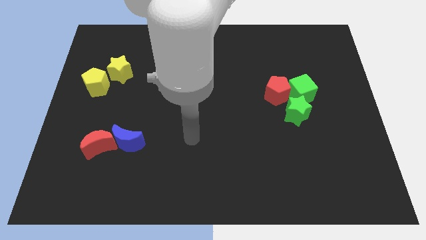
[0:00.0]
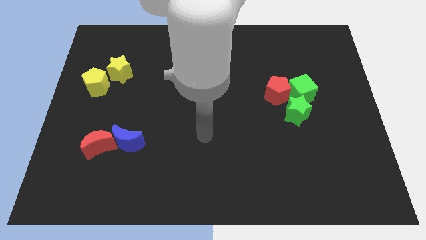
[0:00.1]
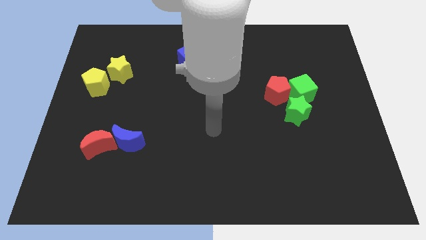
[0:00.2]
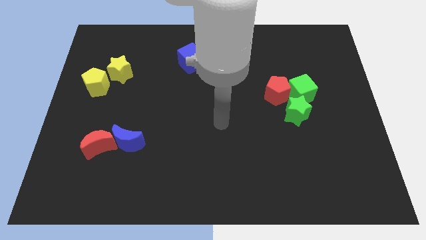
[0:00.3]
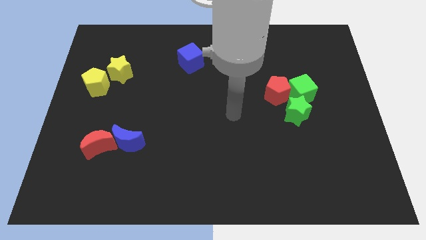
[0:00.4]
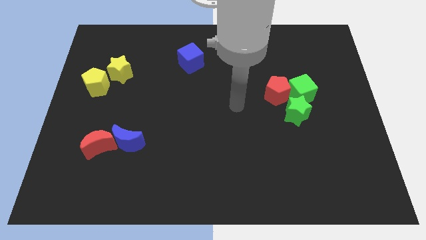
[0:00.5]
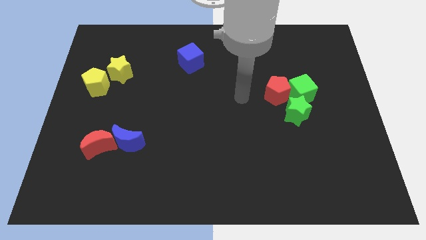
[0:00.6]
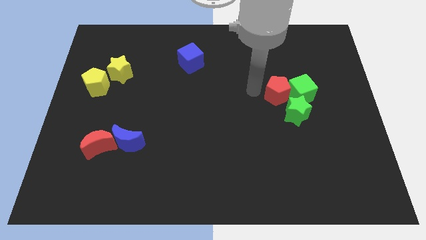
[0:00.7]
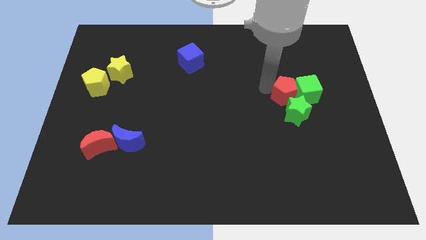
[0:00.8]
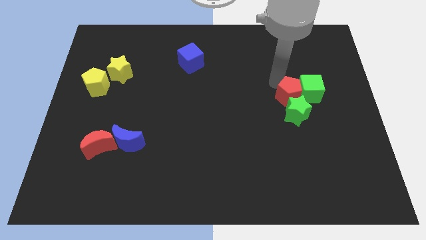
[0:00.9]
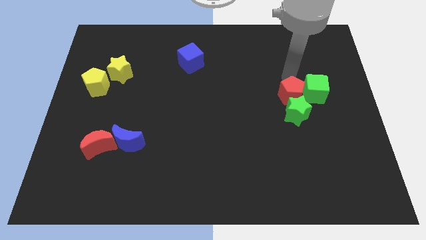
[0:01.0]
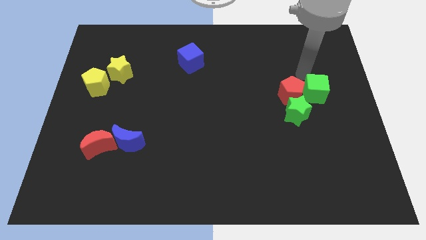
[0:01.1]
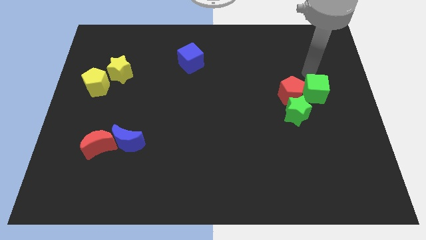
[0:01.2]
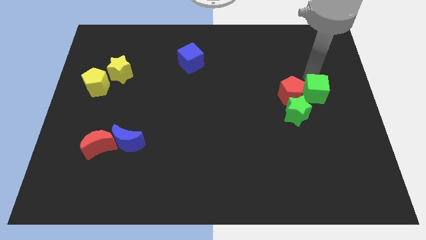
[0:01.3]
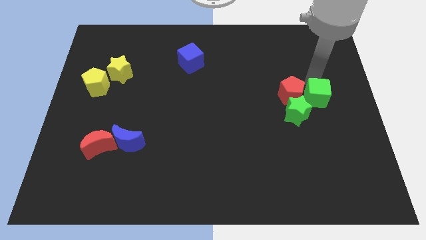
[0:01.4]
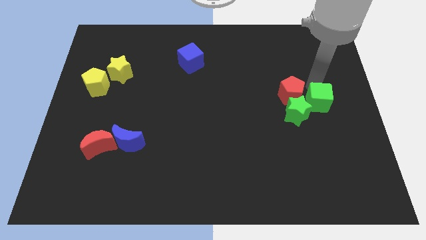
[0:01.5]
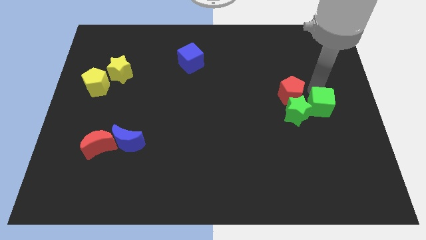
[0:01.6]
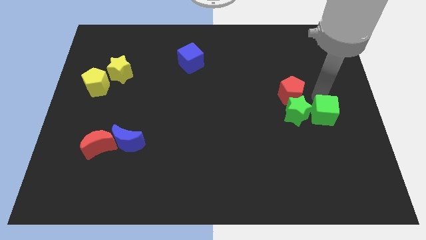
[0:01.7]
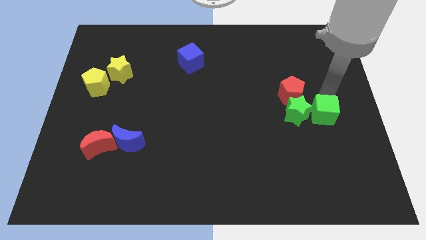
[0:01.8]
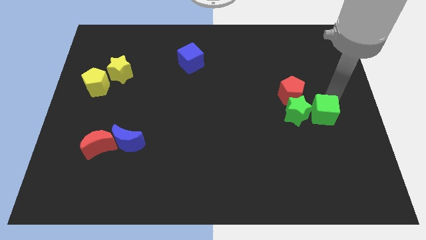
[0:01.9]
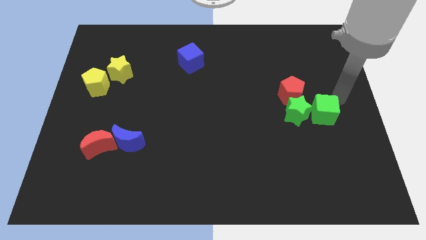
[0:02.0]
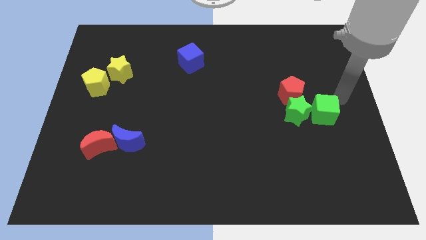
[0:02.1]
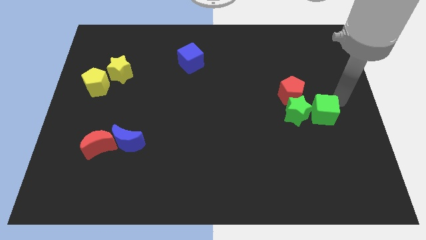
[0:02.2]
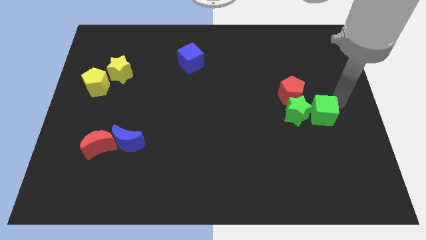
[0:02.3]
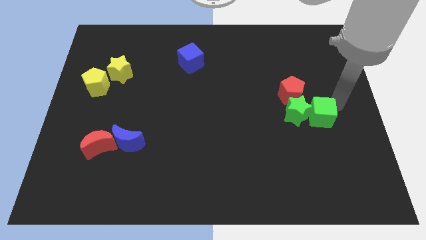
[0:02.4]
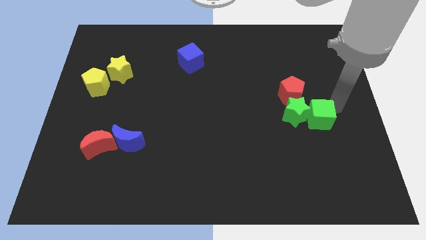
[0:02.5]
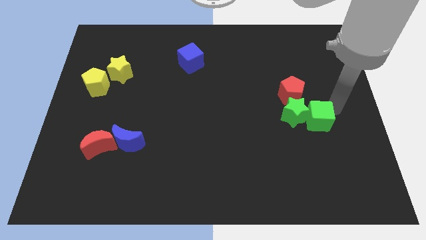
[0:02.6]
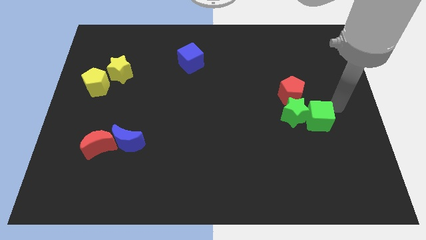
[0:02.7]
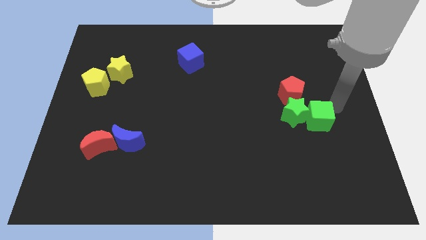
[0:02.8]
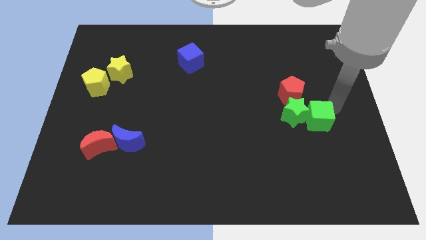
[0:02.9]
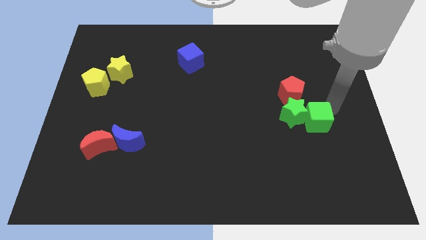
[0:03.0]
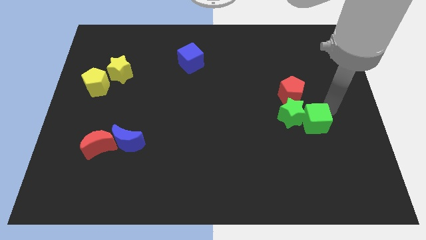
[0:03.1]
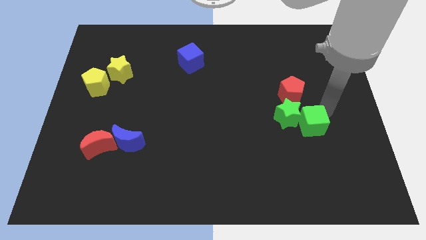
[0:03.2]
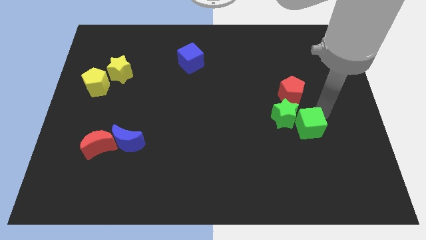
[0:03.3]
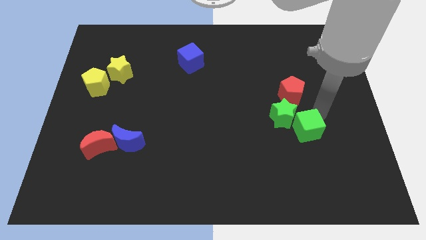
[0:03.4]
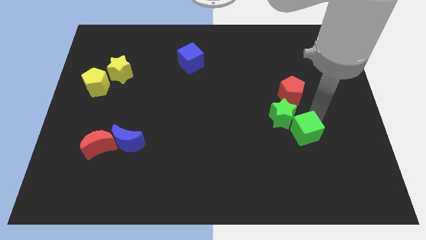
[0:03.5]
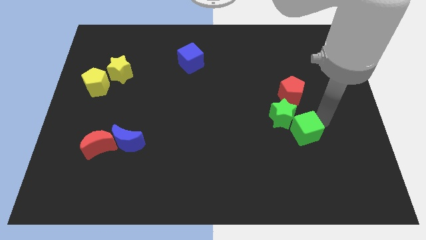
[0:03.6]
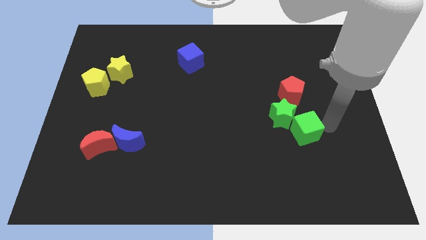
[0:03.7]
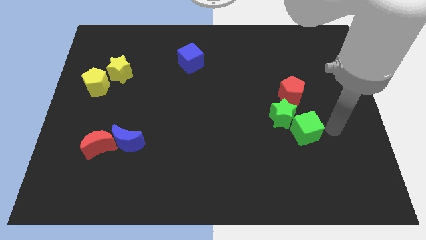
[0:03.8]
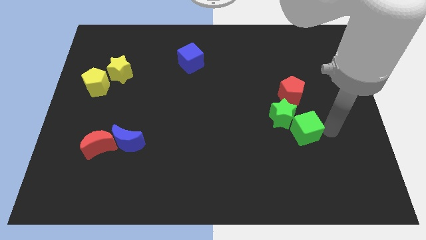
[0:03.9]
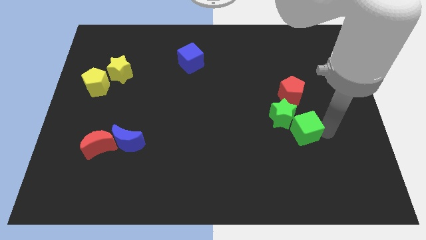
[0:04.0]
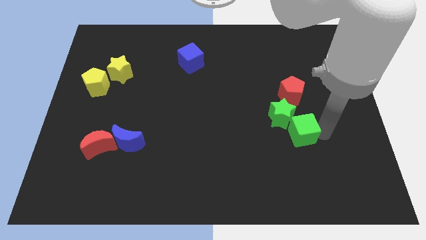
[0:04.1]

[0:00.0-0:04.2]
slightly move the green cube down and left diagonally

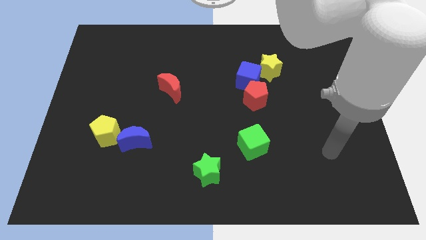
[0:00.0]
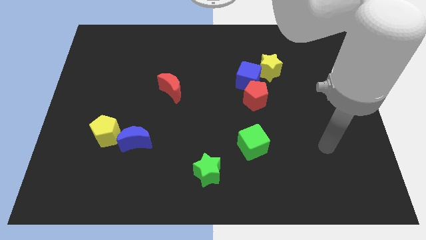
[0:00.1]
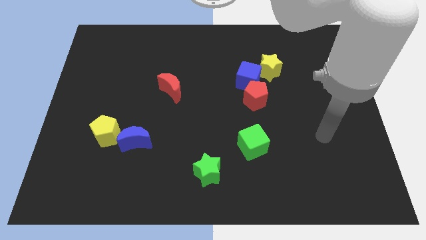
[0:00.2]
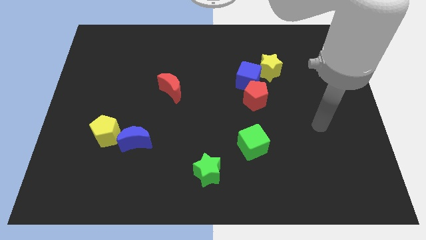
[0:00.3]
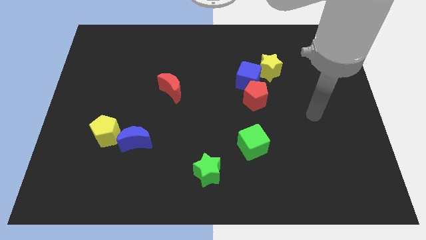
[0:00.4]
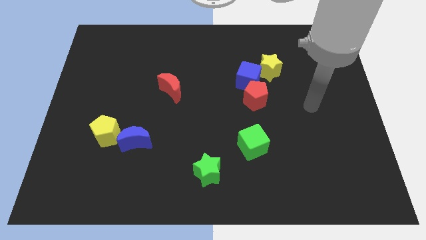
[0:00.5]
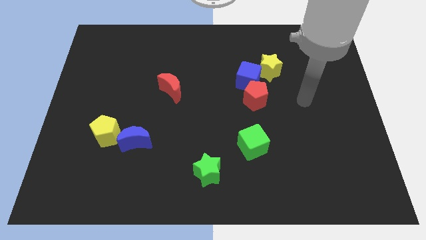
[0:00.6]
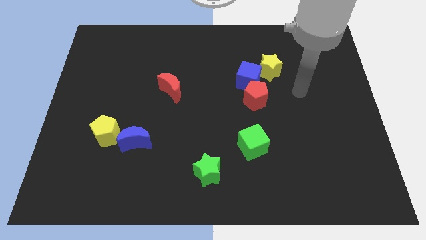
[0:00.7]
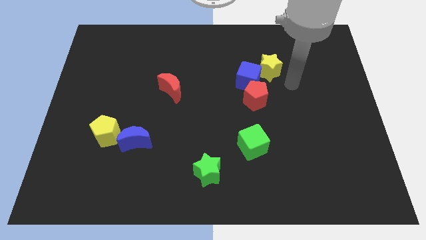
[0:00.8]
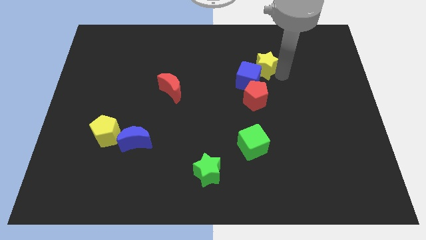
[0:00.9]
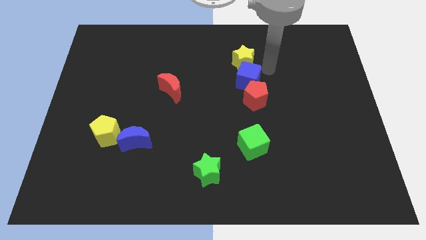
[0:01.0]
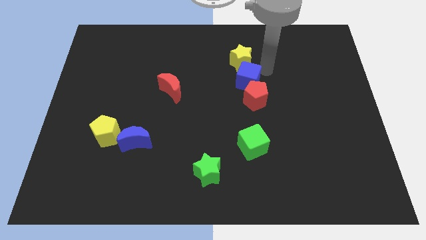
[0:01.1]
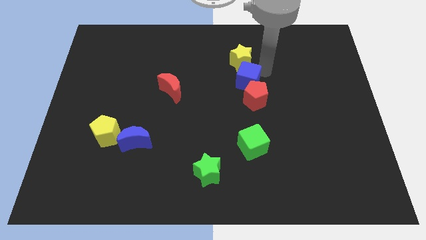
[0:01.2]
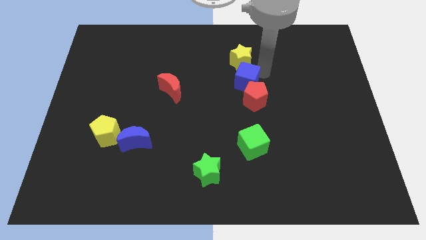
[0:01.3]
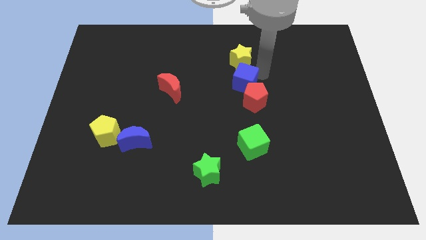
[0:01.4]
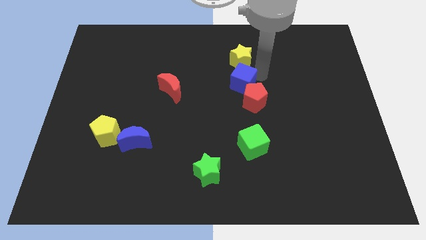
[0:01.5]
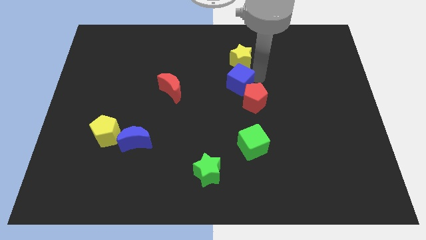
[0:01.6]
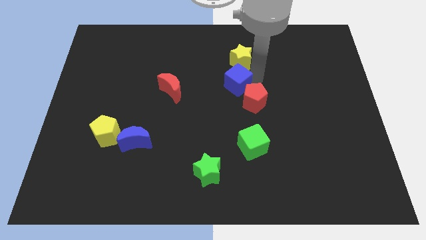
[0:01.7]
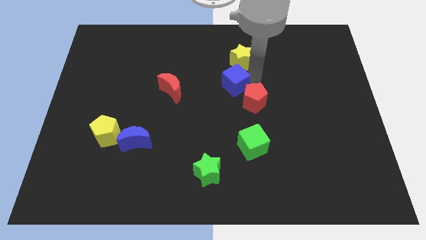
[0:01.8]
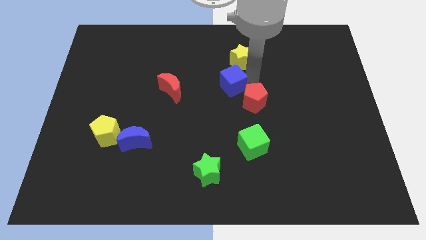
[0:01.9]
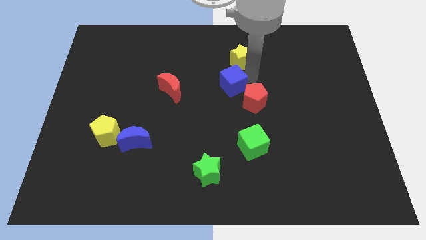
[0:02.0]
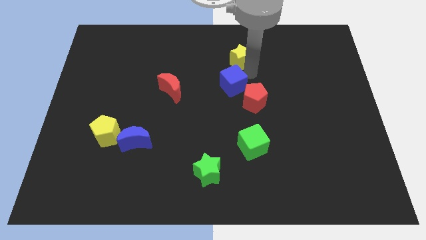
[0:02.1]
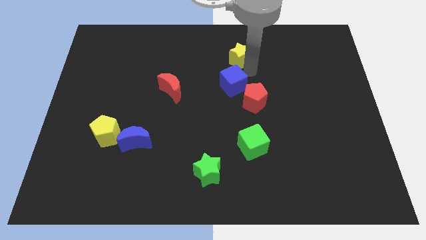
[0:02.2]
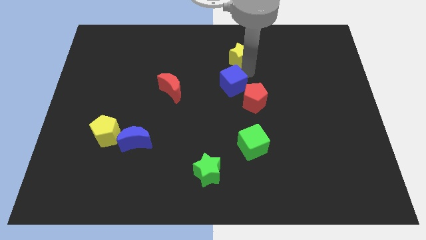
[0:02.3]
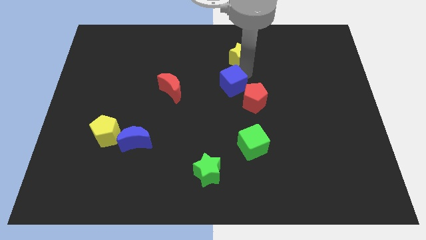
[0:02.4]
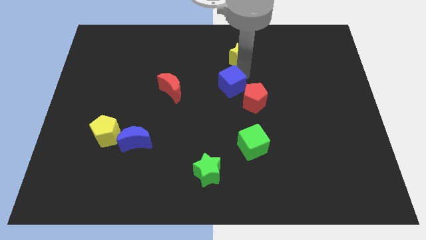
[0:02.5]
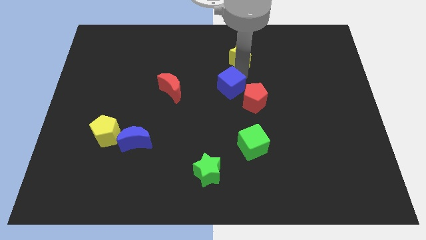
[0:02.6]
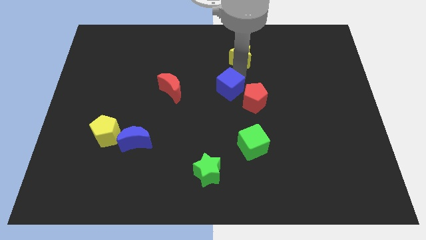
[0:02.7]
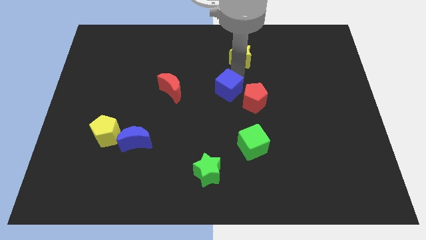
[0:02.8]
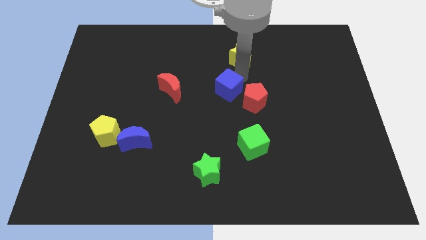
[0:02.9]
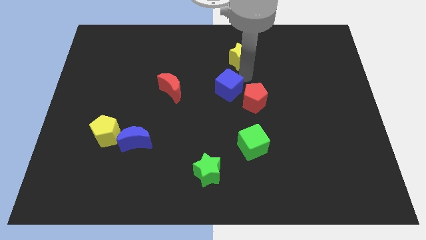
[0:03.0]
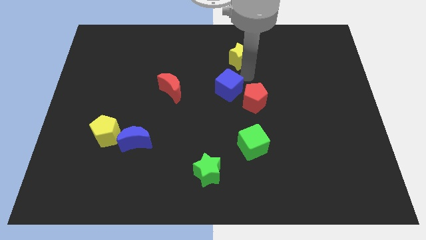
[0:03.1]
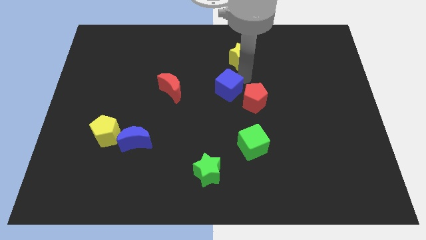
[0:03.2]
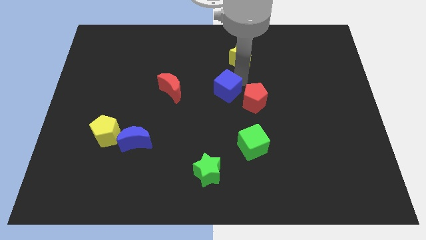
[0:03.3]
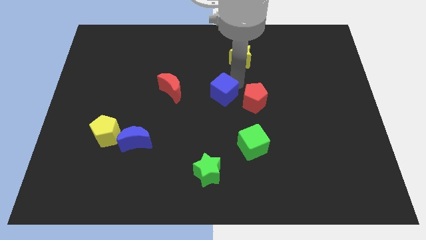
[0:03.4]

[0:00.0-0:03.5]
move the blue cube somewhat downwards and left

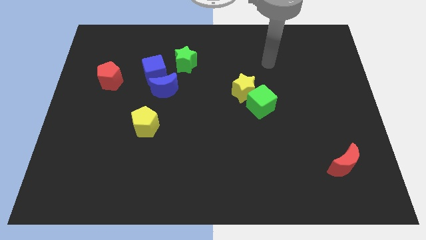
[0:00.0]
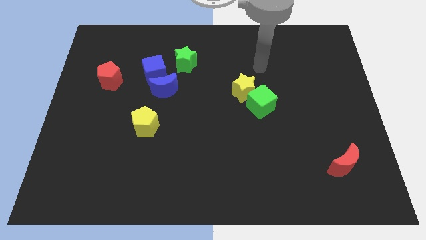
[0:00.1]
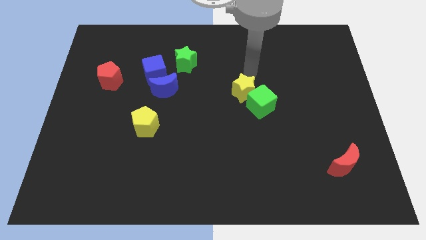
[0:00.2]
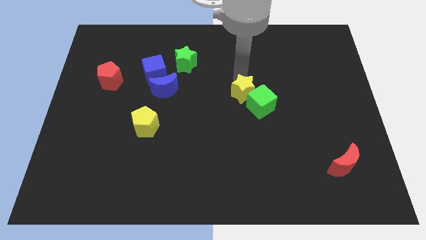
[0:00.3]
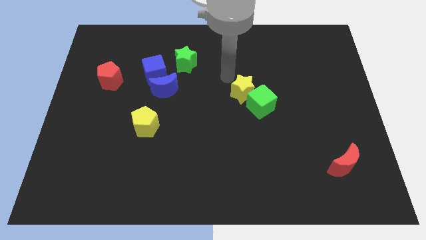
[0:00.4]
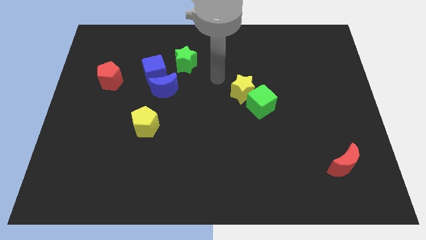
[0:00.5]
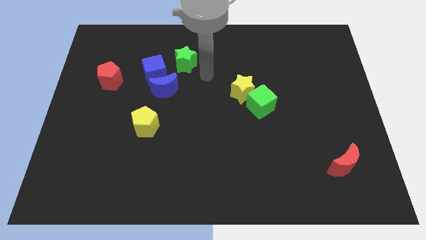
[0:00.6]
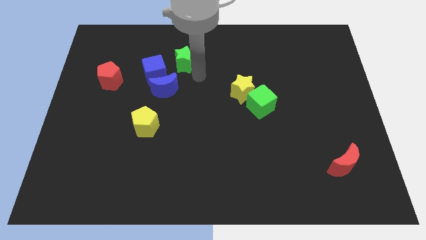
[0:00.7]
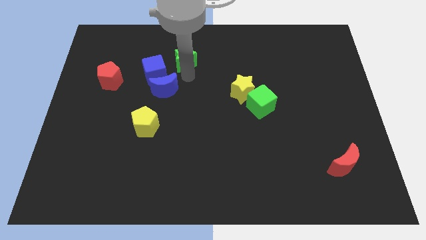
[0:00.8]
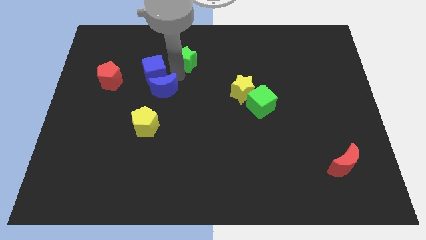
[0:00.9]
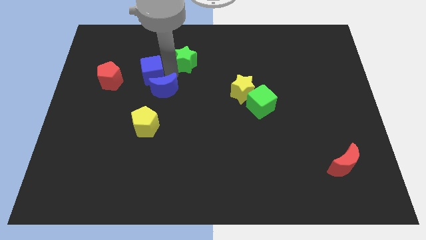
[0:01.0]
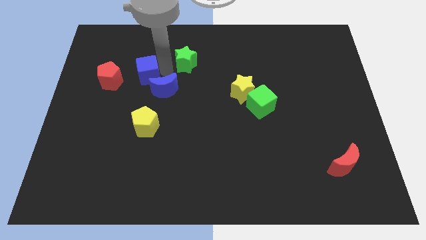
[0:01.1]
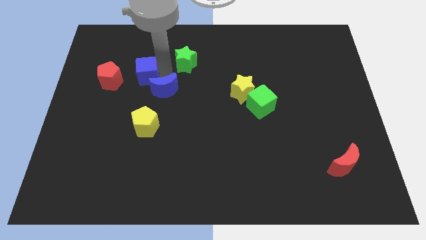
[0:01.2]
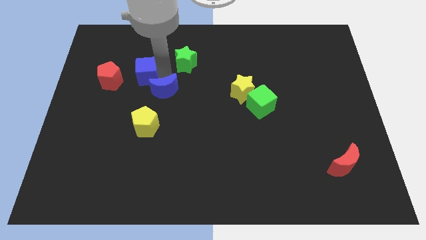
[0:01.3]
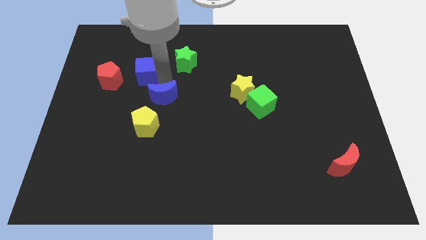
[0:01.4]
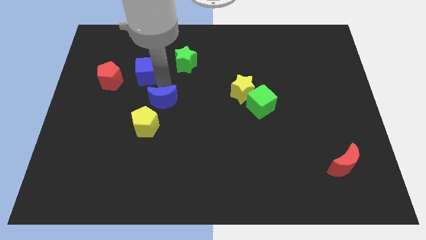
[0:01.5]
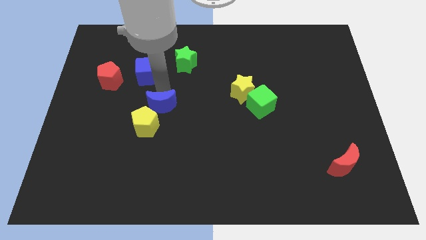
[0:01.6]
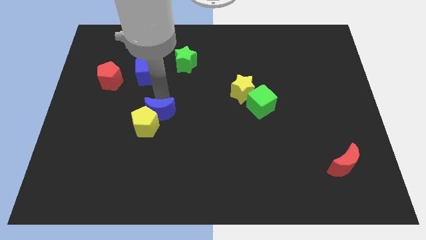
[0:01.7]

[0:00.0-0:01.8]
slide the blue moon down somewhat
